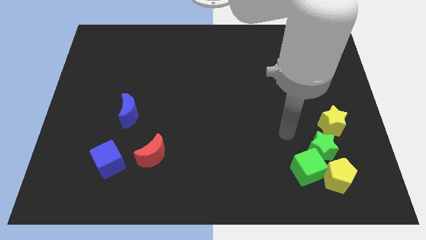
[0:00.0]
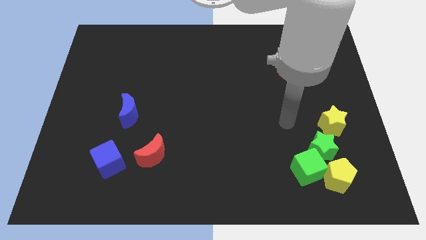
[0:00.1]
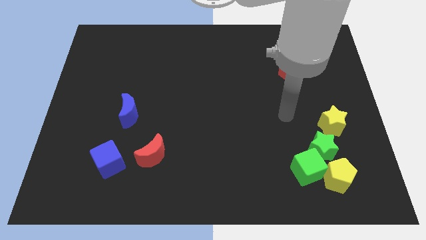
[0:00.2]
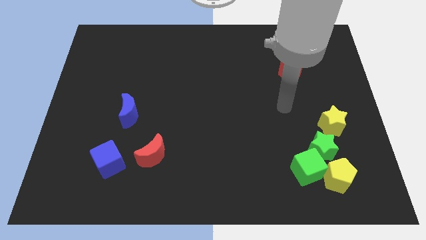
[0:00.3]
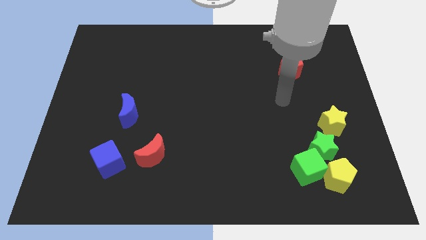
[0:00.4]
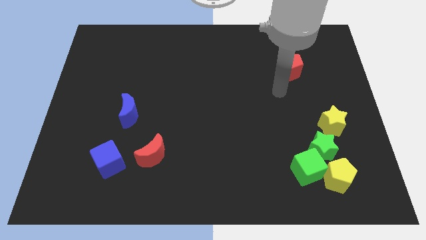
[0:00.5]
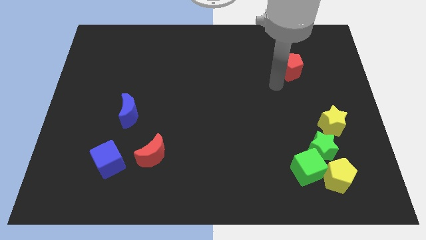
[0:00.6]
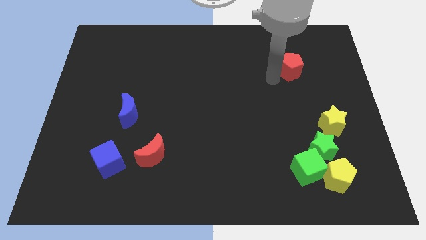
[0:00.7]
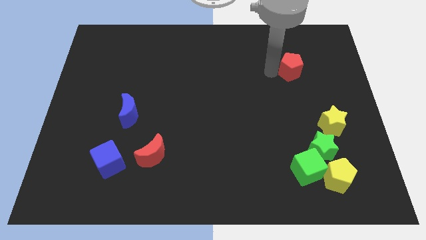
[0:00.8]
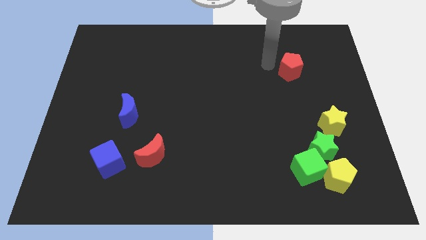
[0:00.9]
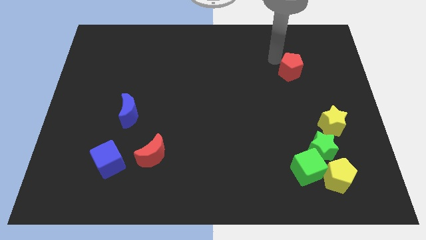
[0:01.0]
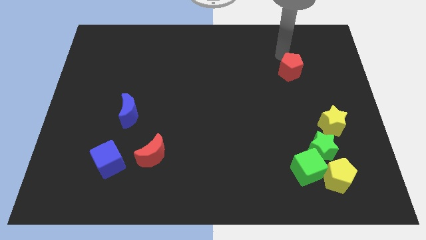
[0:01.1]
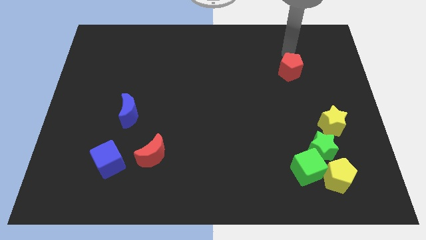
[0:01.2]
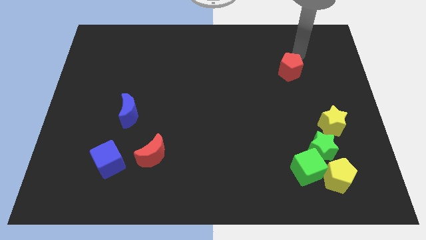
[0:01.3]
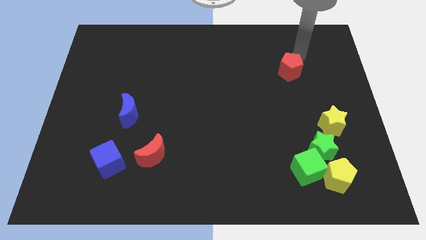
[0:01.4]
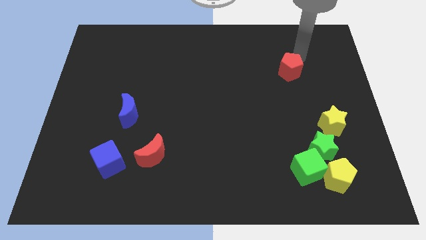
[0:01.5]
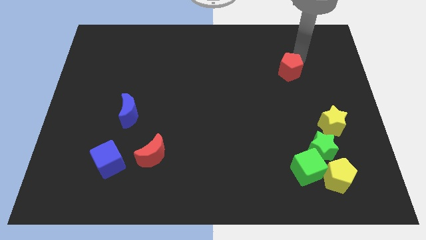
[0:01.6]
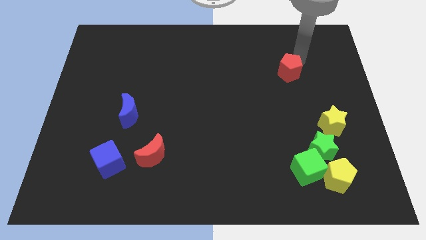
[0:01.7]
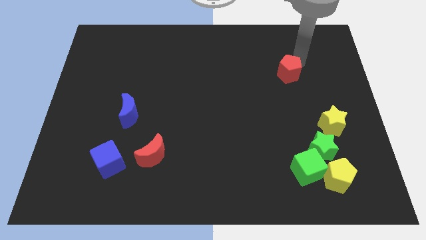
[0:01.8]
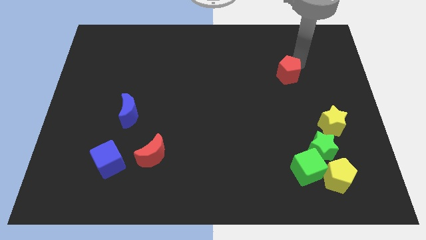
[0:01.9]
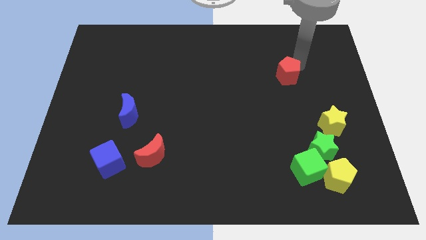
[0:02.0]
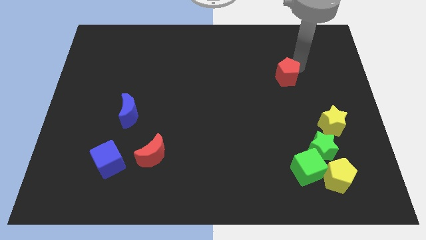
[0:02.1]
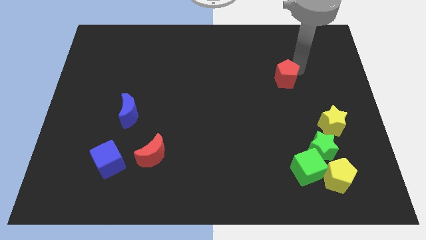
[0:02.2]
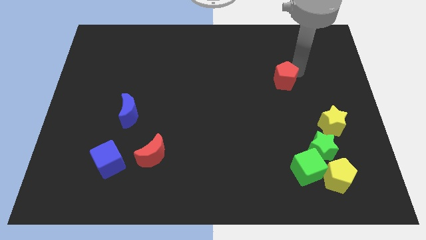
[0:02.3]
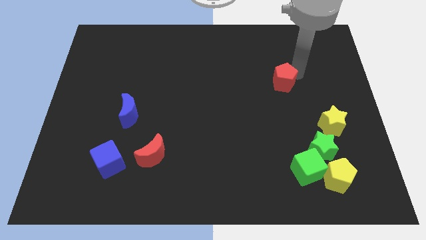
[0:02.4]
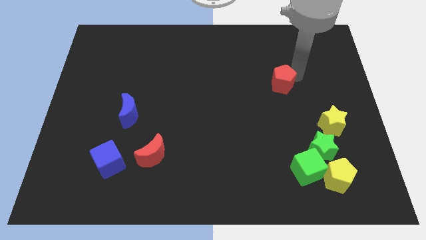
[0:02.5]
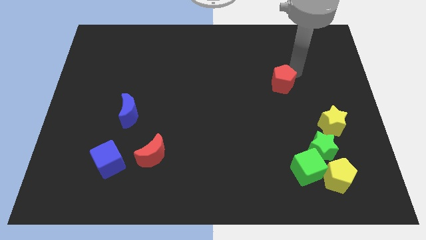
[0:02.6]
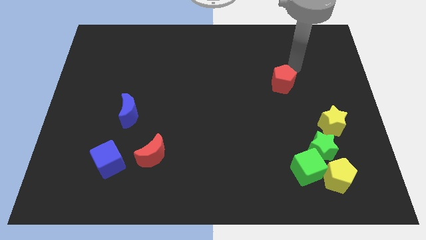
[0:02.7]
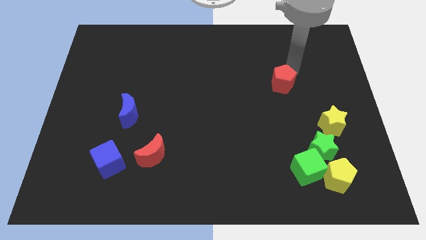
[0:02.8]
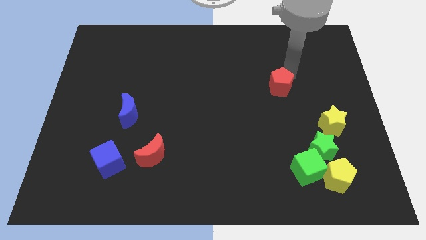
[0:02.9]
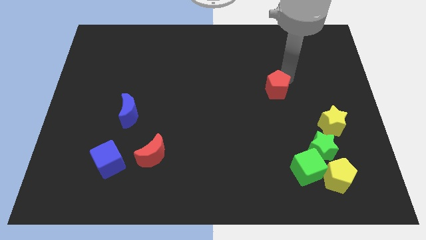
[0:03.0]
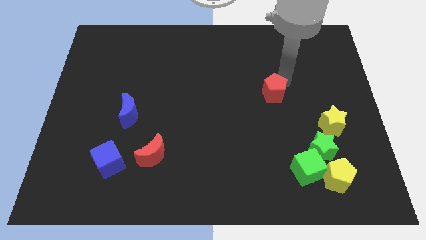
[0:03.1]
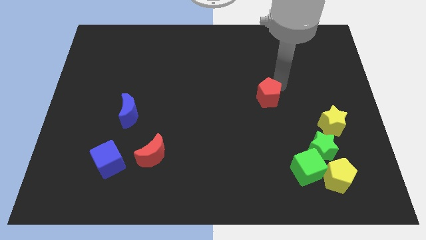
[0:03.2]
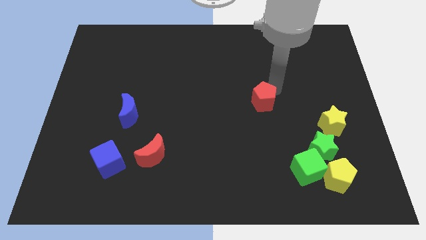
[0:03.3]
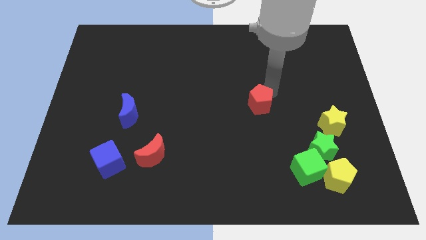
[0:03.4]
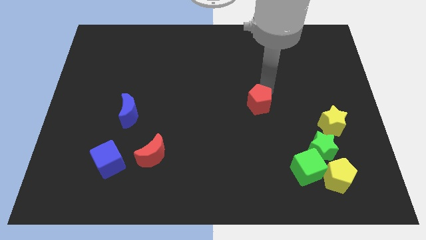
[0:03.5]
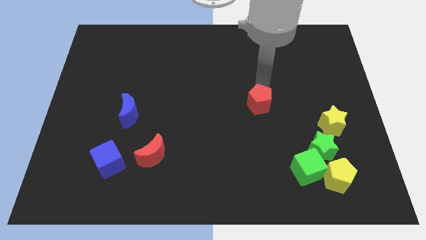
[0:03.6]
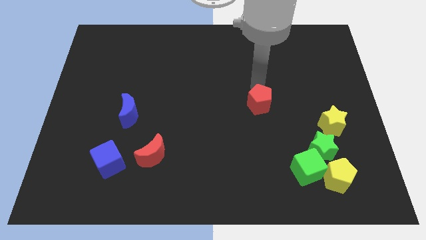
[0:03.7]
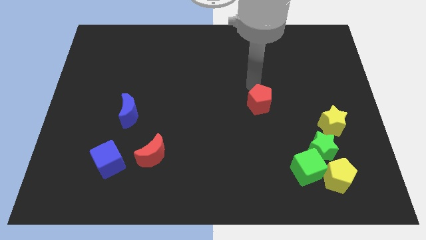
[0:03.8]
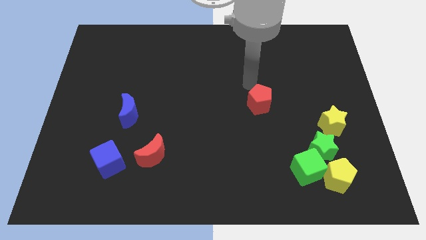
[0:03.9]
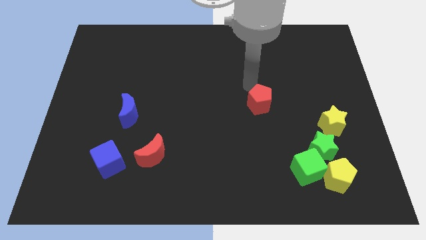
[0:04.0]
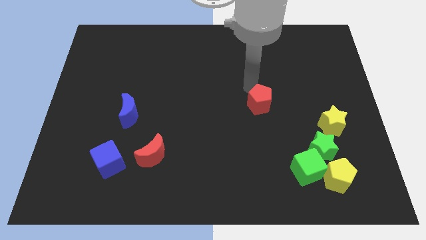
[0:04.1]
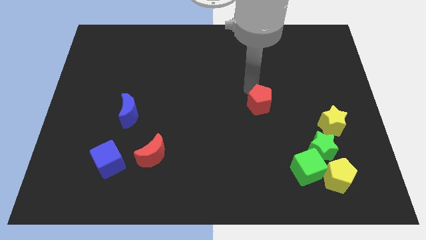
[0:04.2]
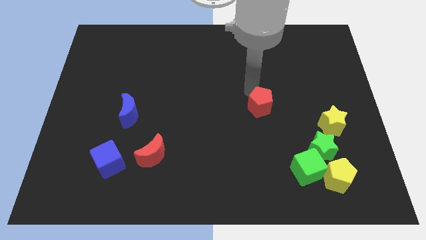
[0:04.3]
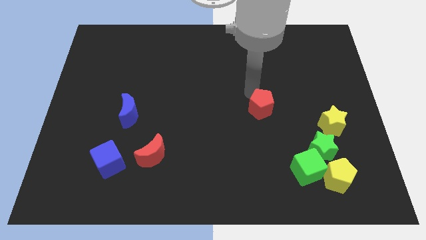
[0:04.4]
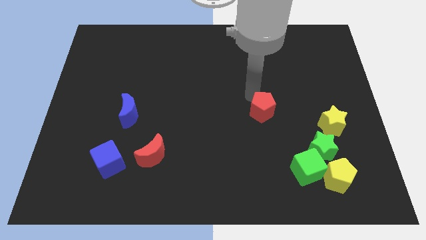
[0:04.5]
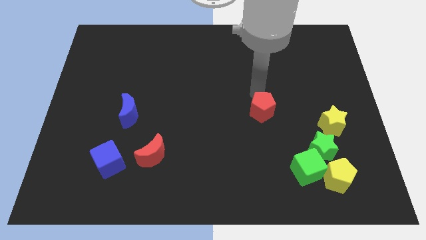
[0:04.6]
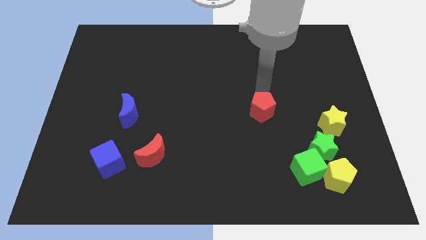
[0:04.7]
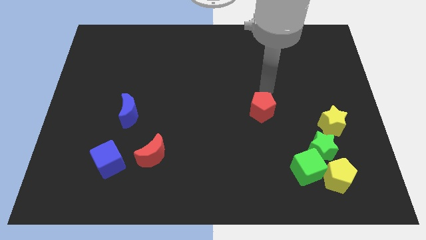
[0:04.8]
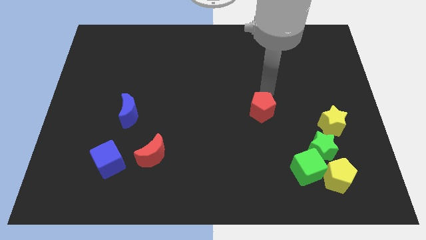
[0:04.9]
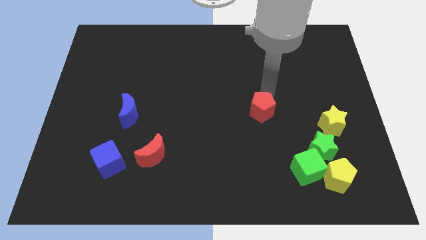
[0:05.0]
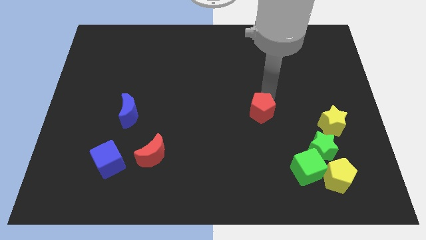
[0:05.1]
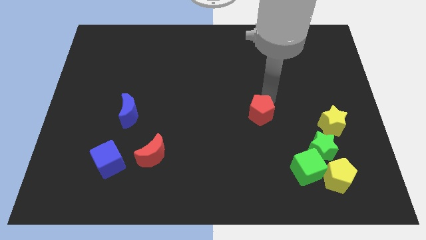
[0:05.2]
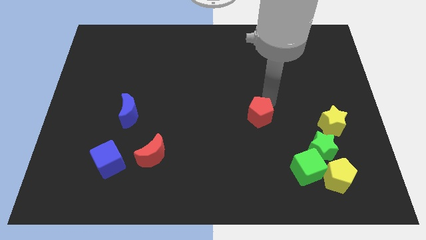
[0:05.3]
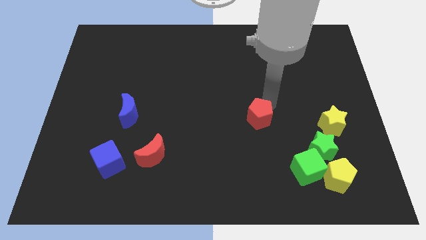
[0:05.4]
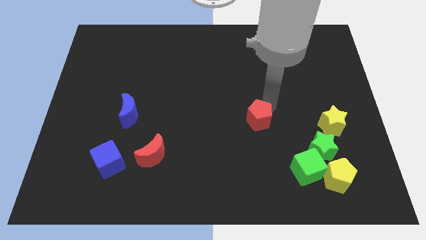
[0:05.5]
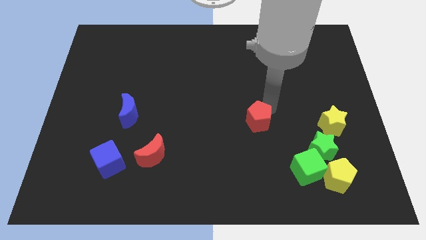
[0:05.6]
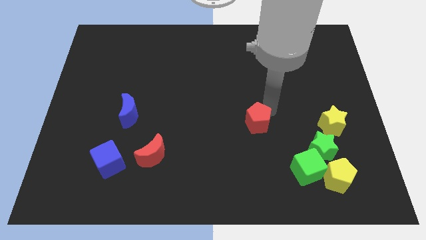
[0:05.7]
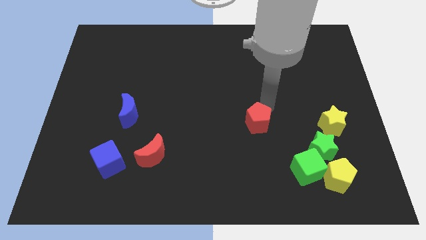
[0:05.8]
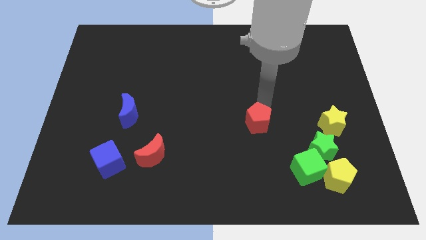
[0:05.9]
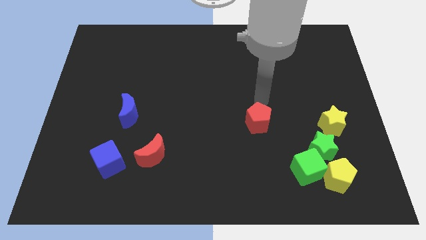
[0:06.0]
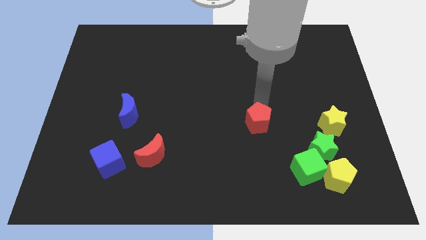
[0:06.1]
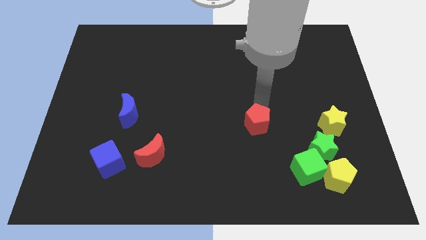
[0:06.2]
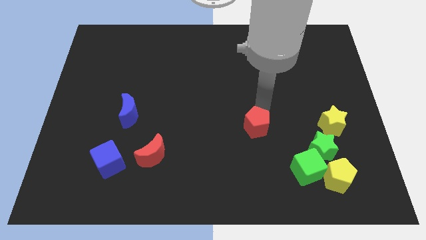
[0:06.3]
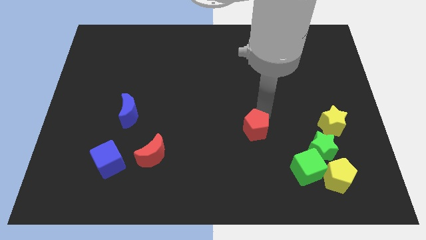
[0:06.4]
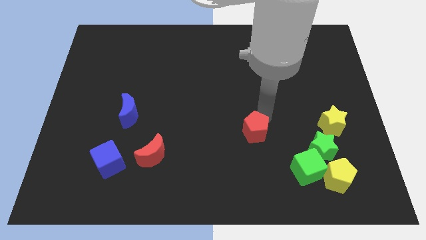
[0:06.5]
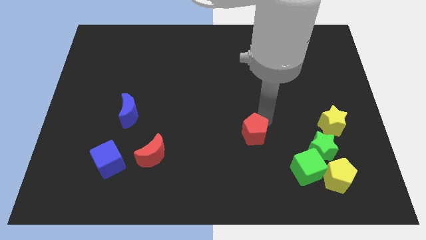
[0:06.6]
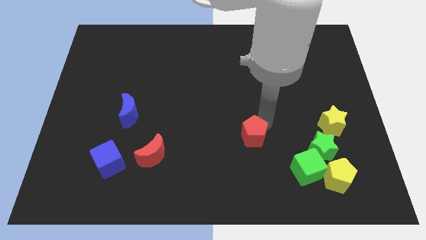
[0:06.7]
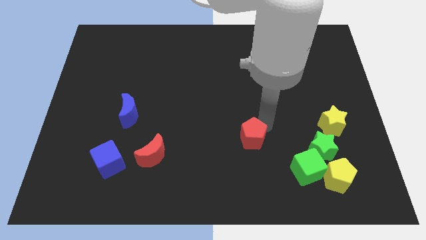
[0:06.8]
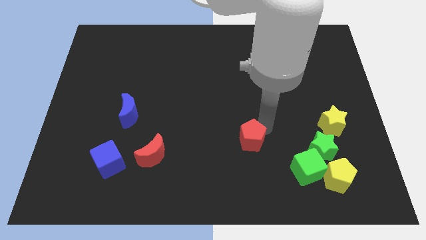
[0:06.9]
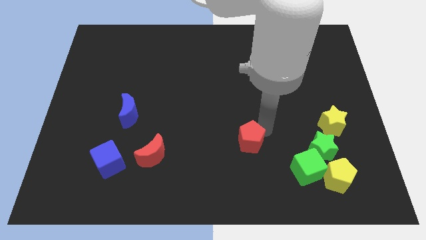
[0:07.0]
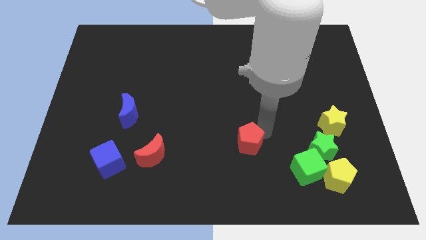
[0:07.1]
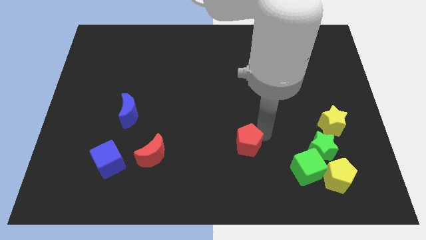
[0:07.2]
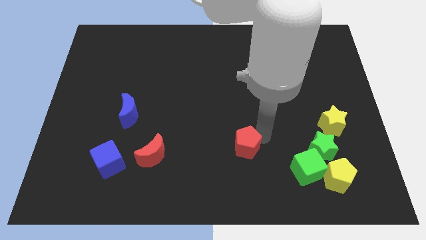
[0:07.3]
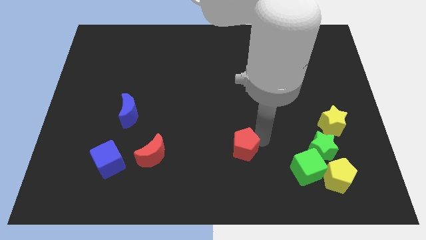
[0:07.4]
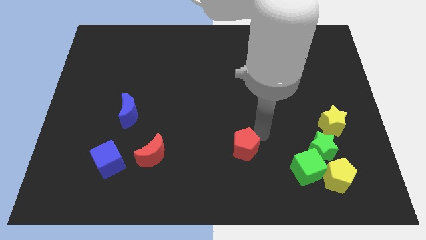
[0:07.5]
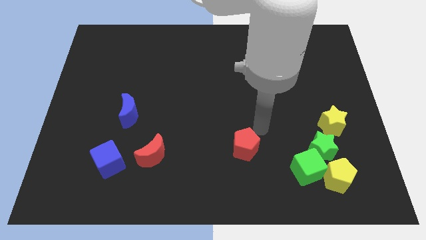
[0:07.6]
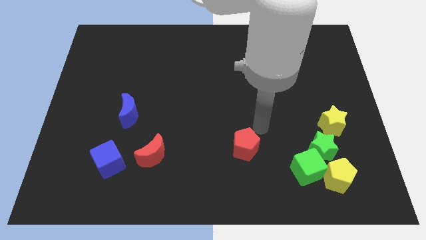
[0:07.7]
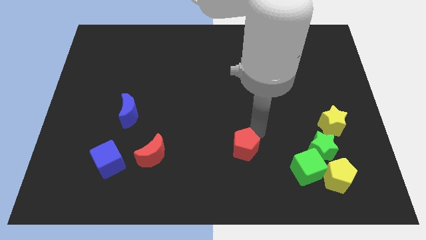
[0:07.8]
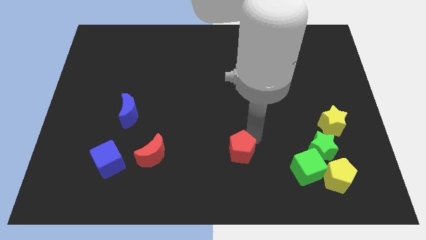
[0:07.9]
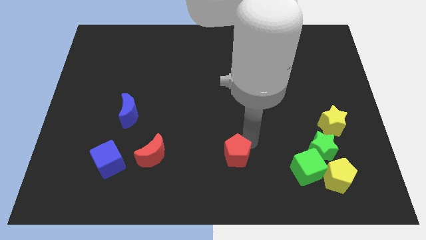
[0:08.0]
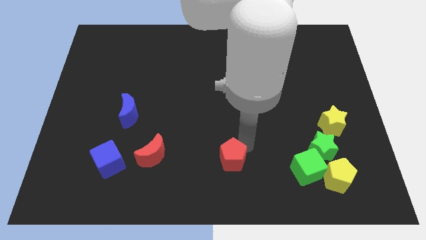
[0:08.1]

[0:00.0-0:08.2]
slide the red pentagon to the bottom side
